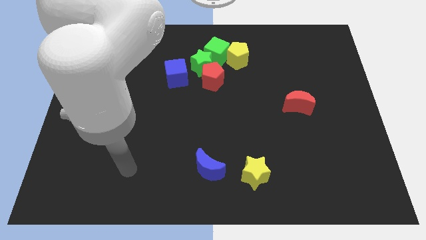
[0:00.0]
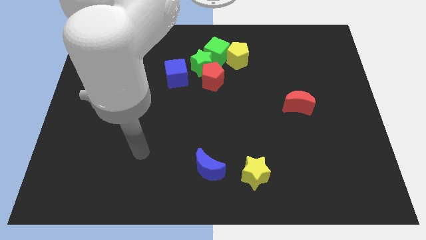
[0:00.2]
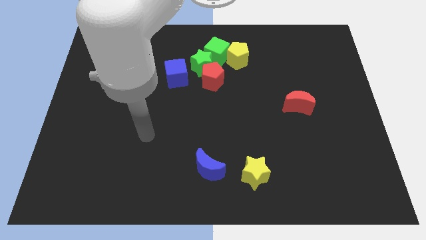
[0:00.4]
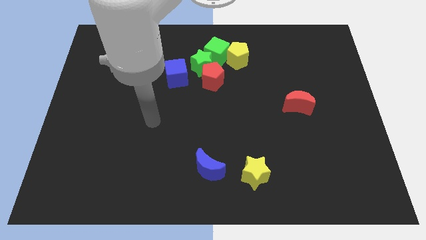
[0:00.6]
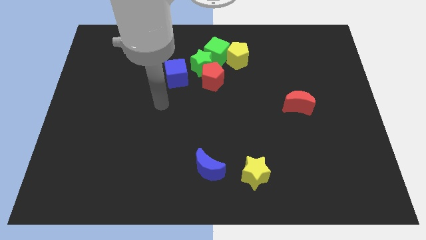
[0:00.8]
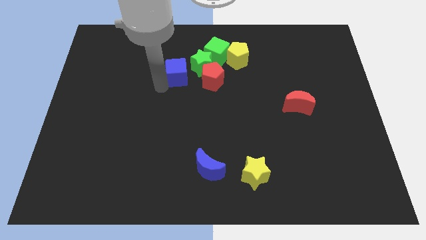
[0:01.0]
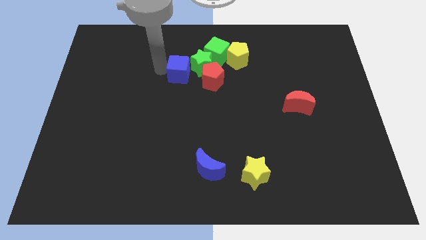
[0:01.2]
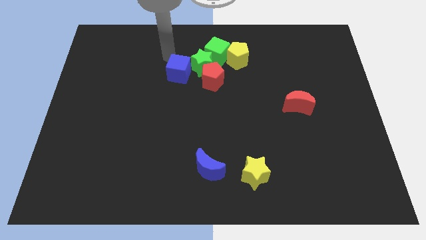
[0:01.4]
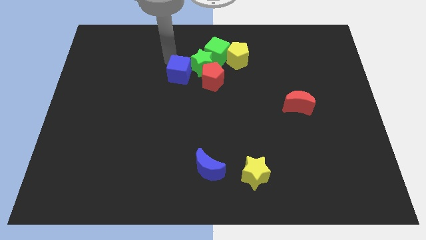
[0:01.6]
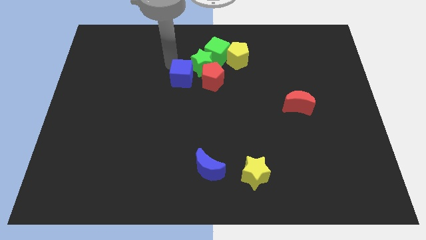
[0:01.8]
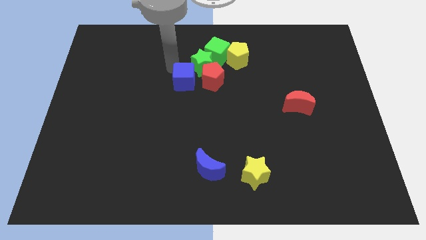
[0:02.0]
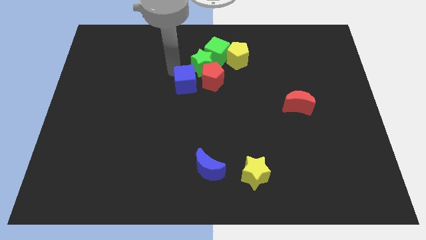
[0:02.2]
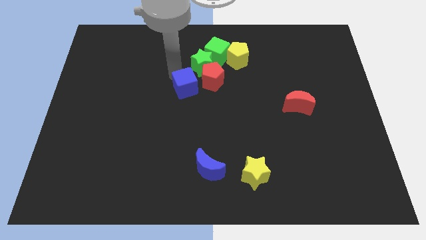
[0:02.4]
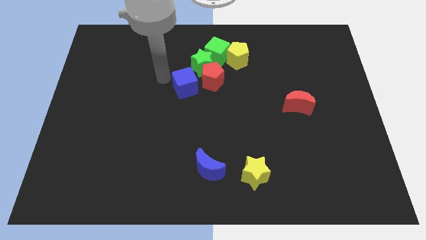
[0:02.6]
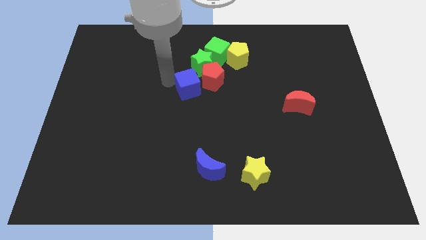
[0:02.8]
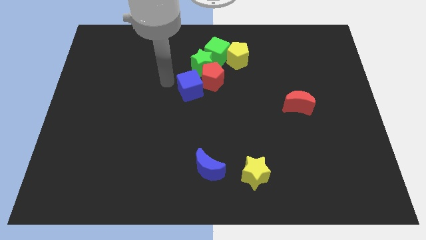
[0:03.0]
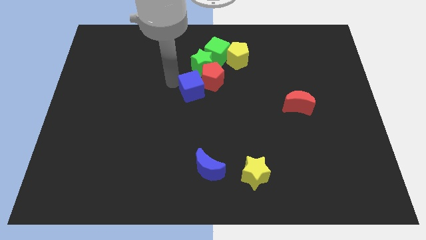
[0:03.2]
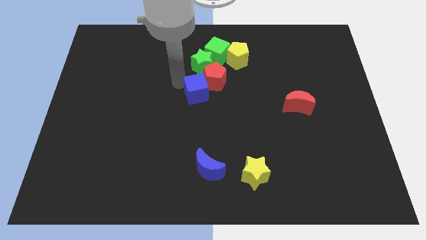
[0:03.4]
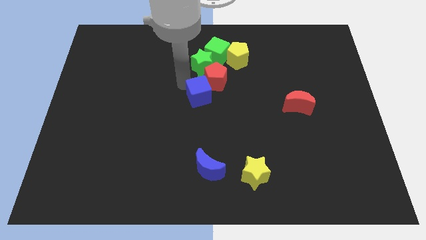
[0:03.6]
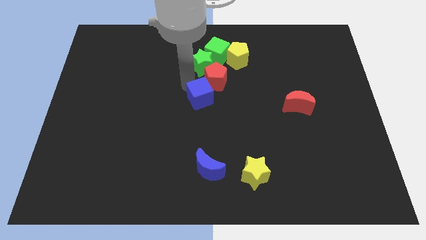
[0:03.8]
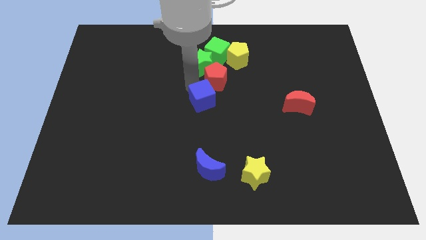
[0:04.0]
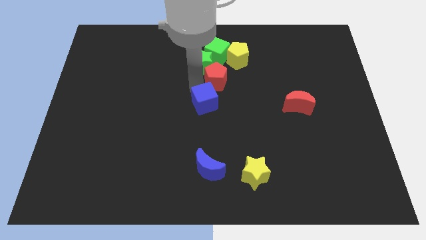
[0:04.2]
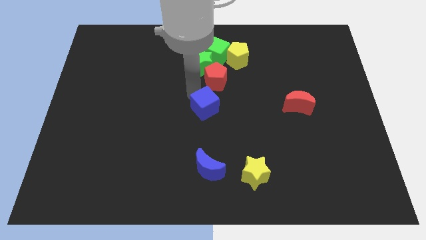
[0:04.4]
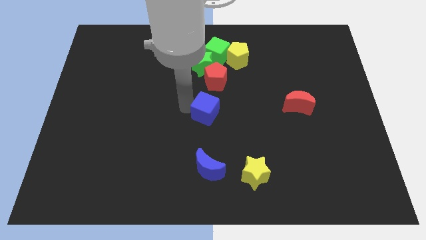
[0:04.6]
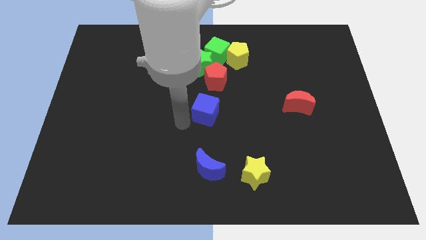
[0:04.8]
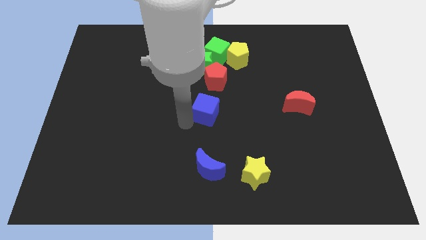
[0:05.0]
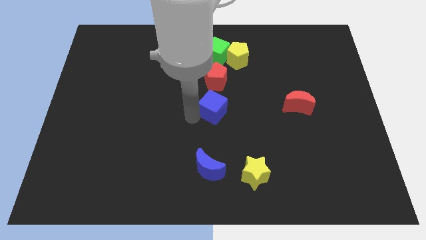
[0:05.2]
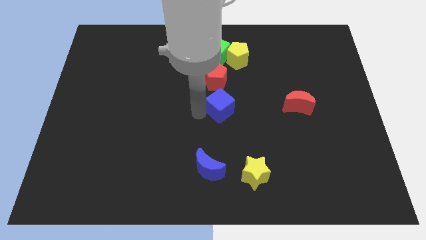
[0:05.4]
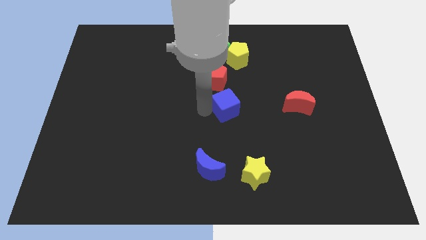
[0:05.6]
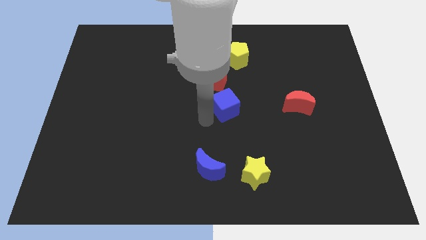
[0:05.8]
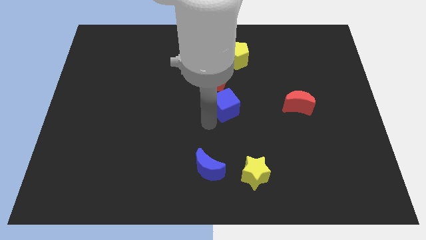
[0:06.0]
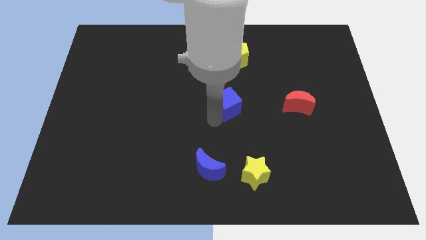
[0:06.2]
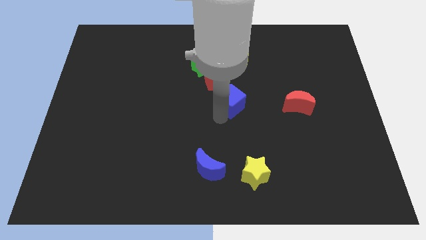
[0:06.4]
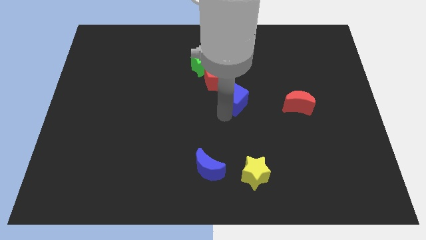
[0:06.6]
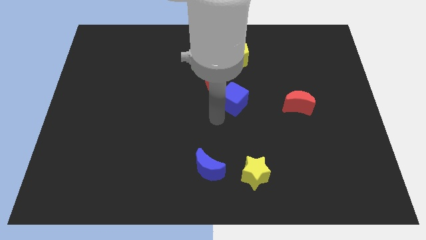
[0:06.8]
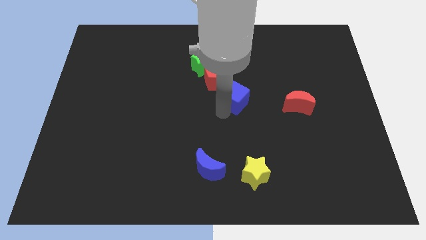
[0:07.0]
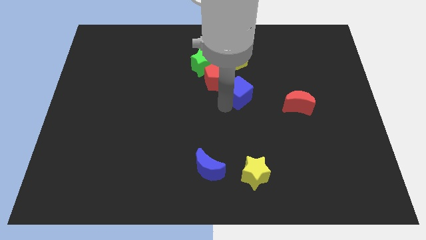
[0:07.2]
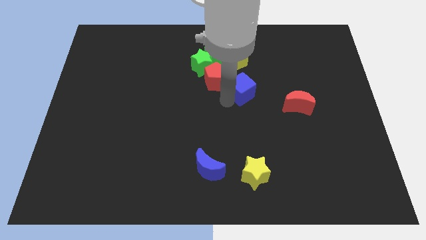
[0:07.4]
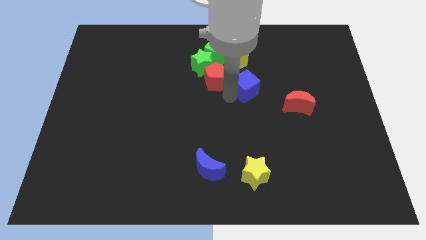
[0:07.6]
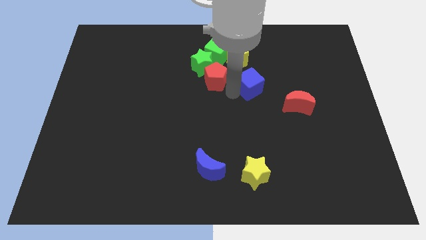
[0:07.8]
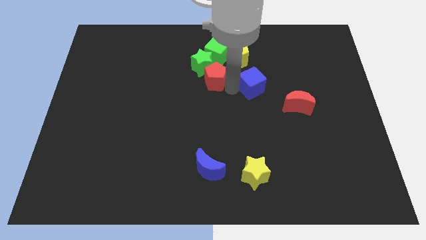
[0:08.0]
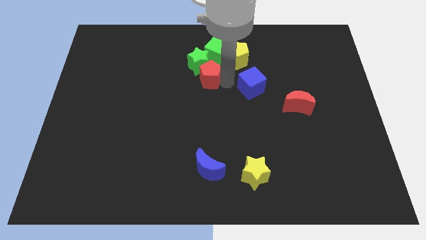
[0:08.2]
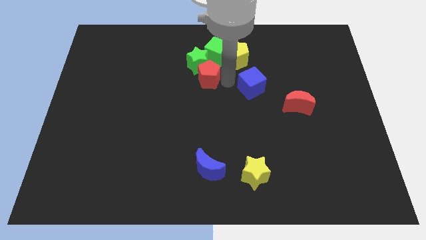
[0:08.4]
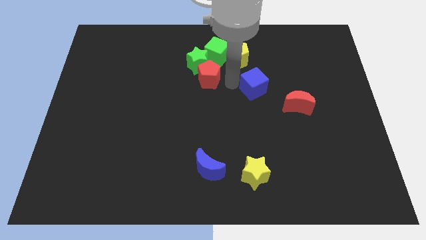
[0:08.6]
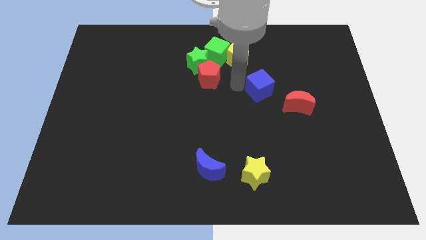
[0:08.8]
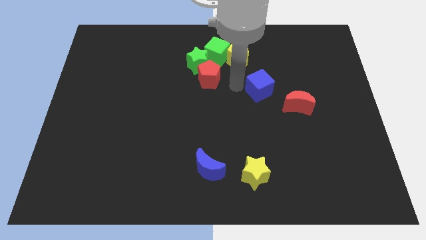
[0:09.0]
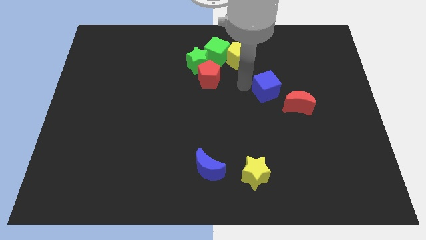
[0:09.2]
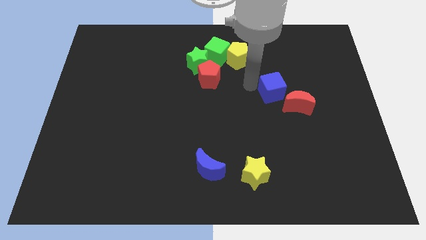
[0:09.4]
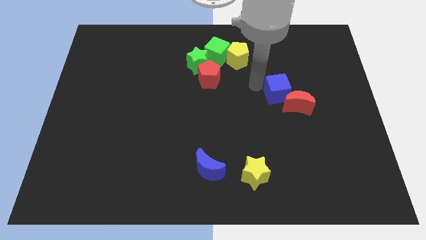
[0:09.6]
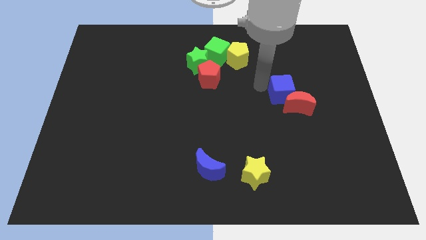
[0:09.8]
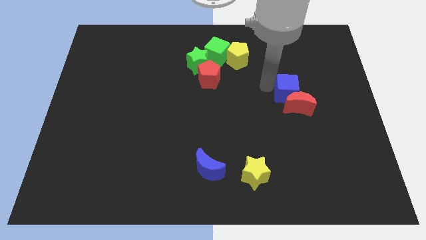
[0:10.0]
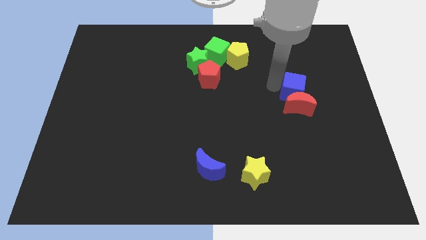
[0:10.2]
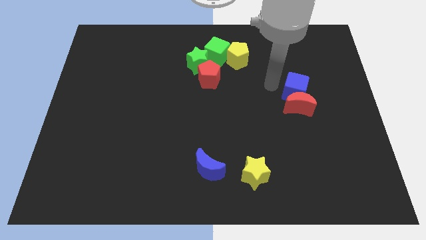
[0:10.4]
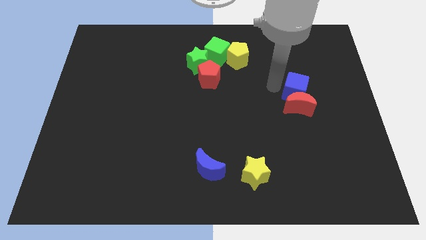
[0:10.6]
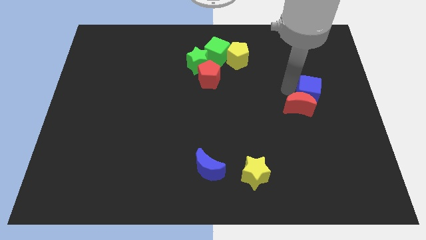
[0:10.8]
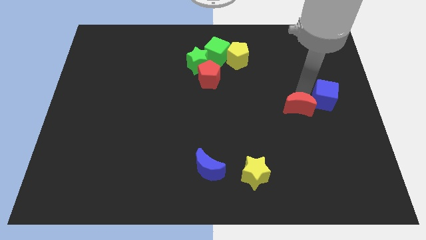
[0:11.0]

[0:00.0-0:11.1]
slide the blue cube to the right side

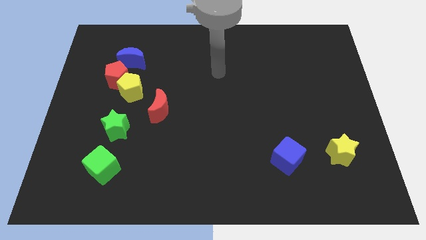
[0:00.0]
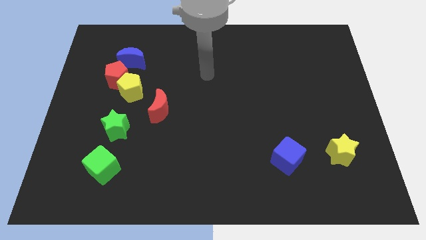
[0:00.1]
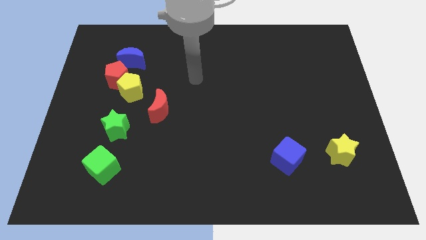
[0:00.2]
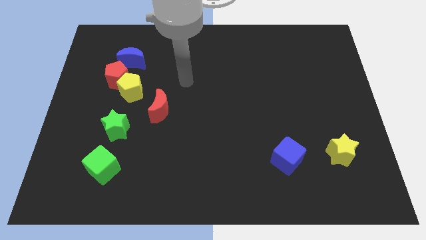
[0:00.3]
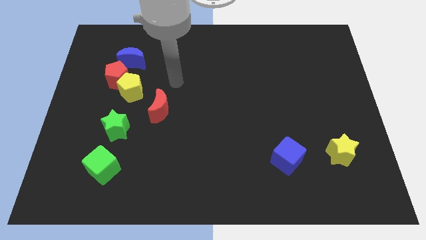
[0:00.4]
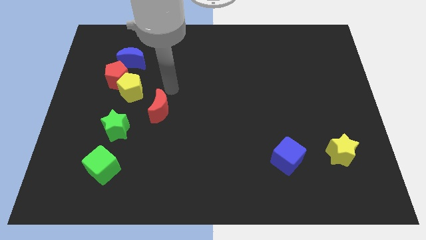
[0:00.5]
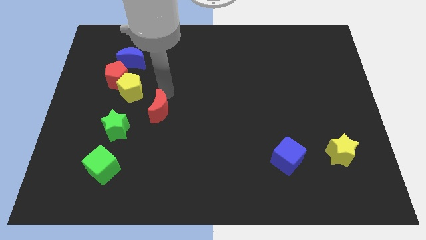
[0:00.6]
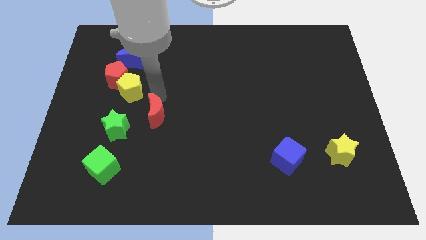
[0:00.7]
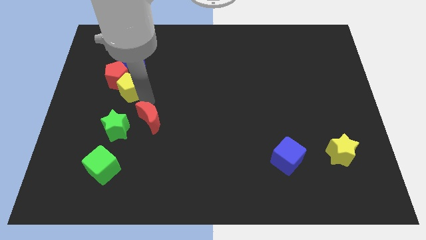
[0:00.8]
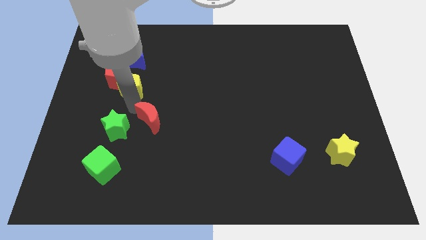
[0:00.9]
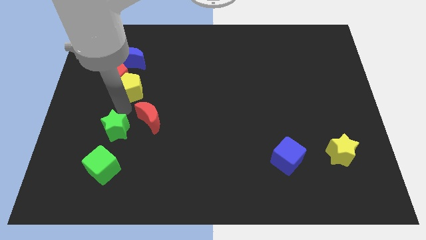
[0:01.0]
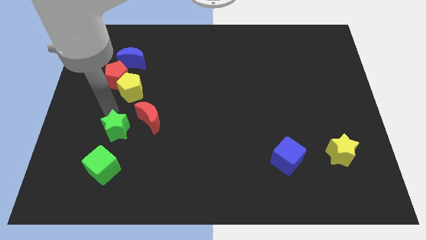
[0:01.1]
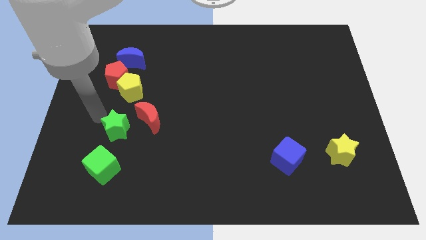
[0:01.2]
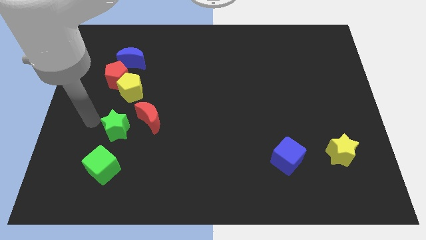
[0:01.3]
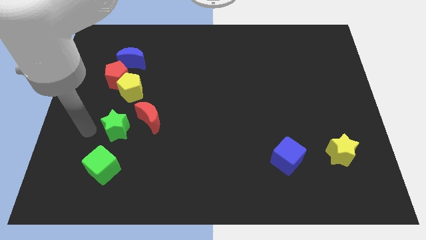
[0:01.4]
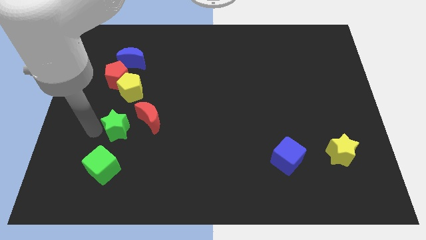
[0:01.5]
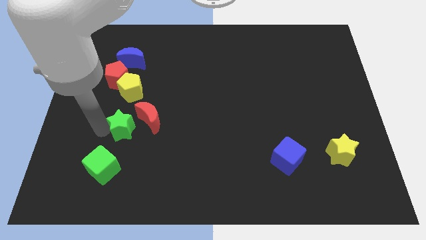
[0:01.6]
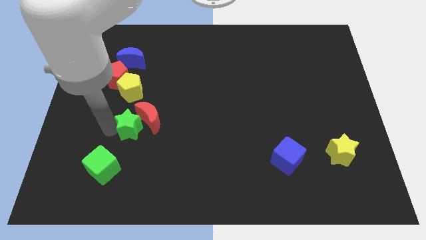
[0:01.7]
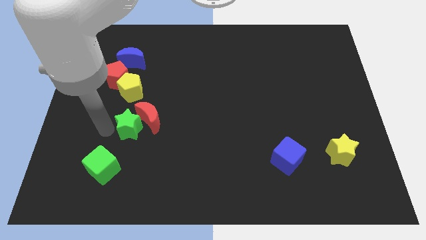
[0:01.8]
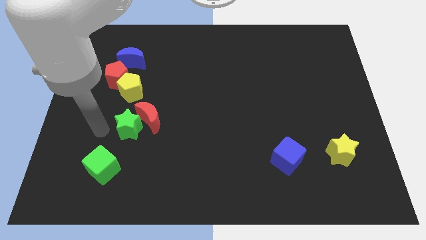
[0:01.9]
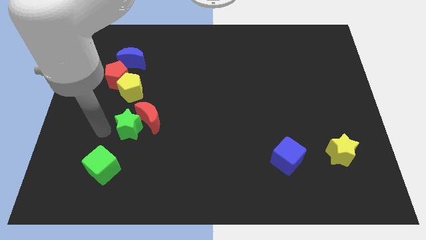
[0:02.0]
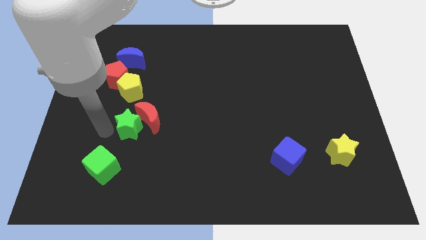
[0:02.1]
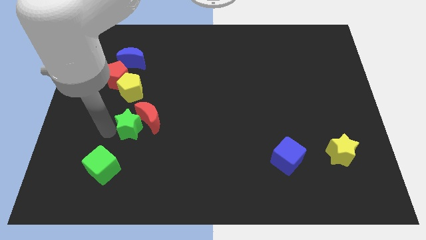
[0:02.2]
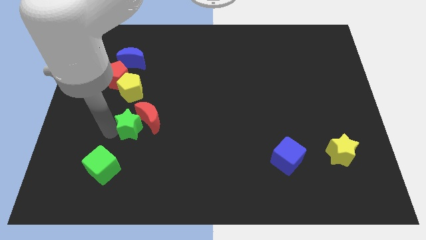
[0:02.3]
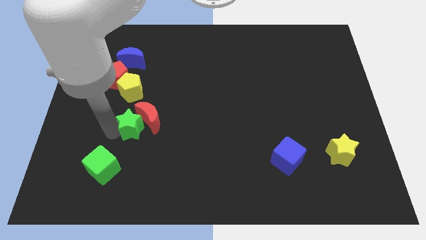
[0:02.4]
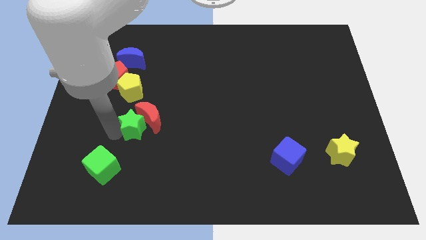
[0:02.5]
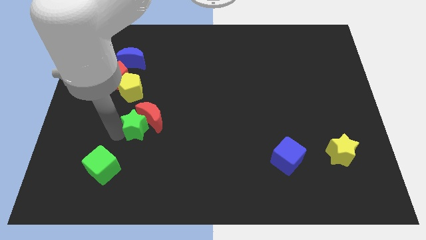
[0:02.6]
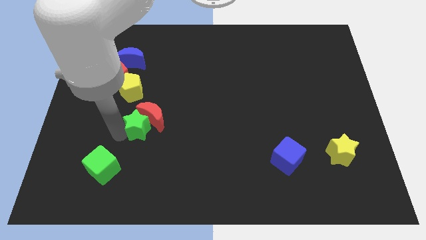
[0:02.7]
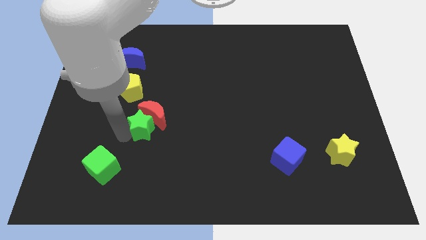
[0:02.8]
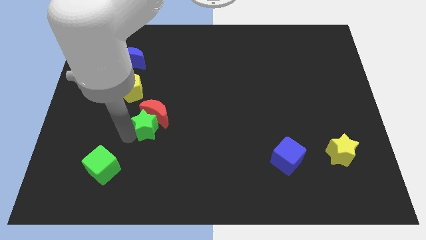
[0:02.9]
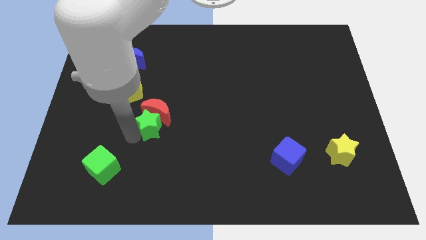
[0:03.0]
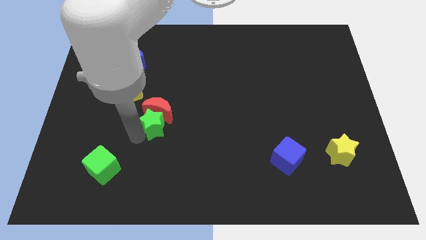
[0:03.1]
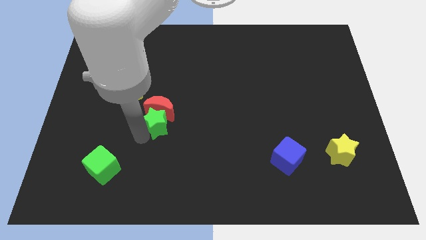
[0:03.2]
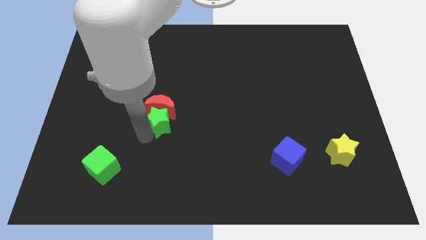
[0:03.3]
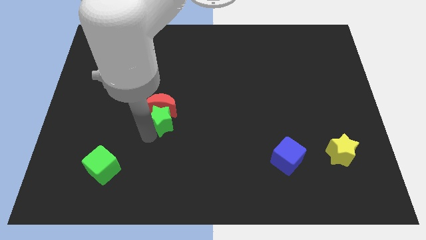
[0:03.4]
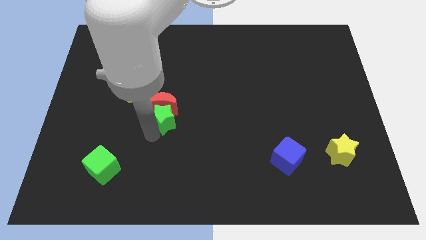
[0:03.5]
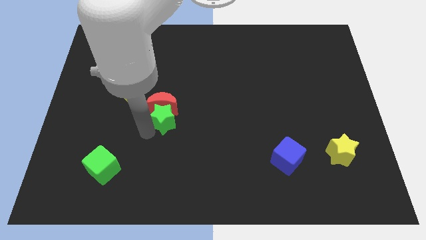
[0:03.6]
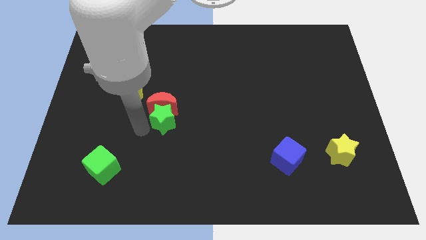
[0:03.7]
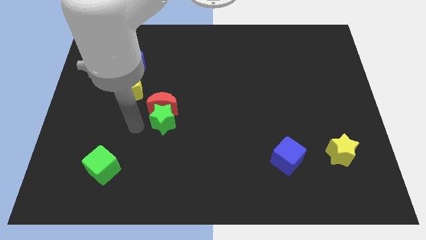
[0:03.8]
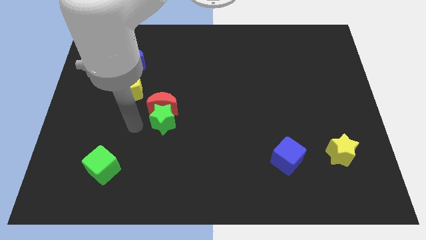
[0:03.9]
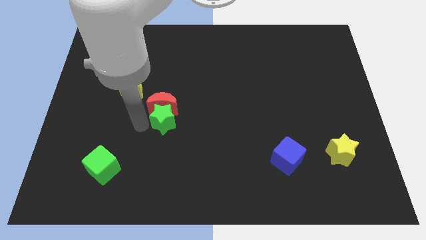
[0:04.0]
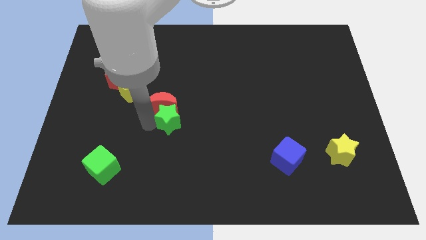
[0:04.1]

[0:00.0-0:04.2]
move the green star to the middle
